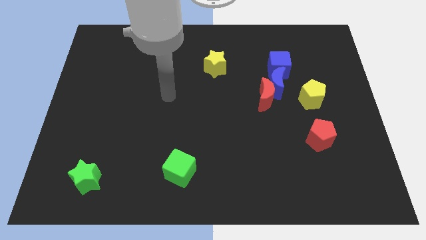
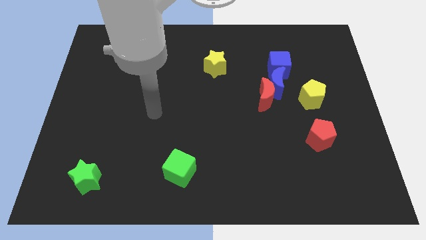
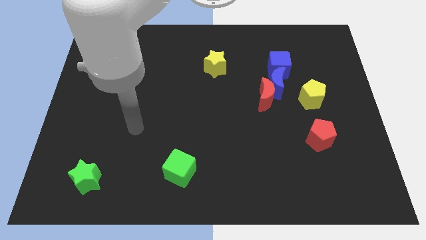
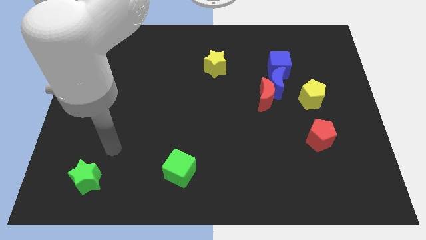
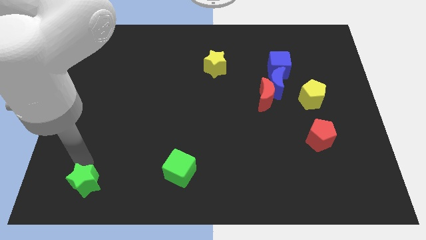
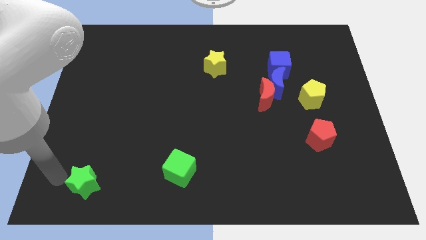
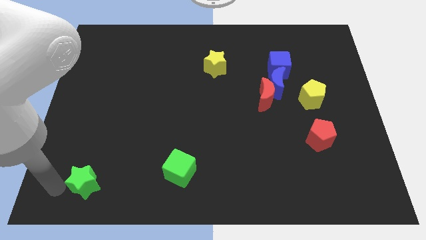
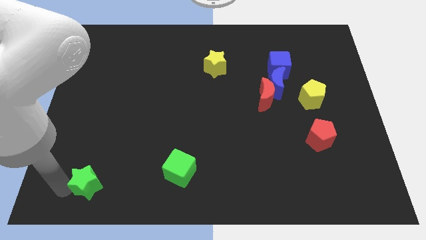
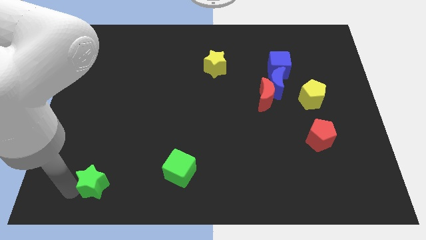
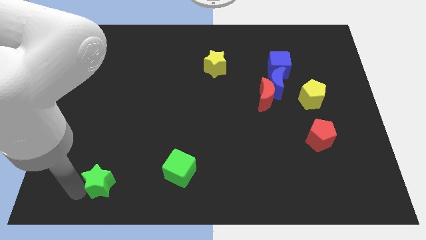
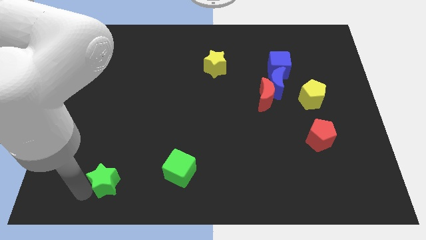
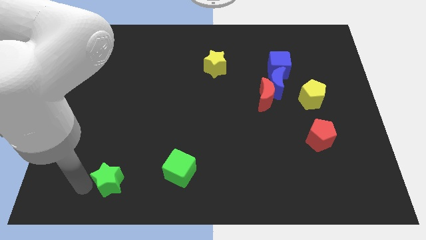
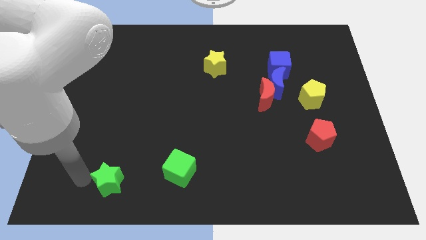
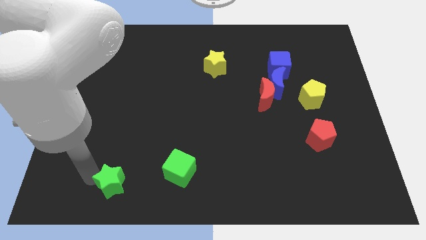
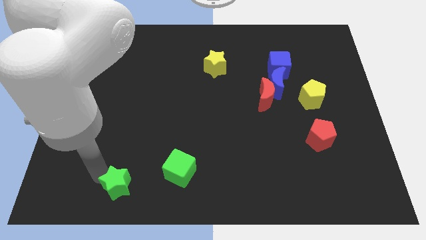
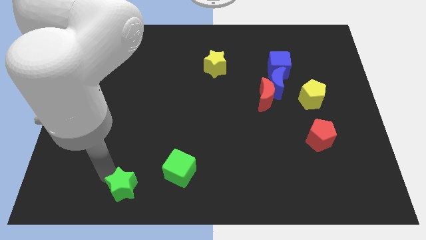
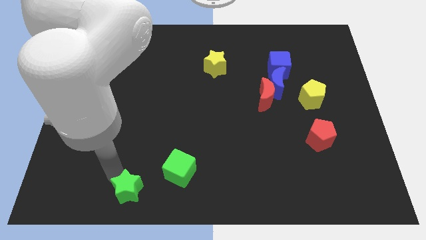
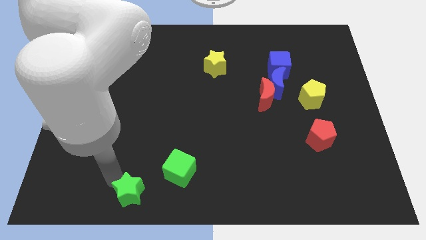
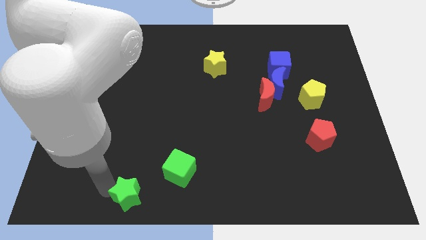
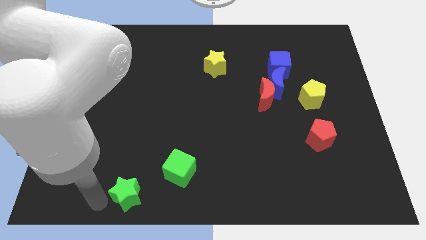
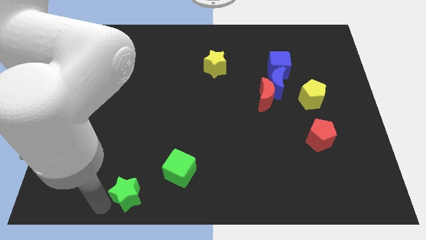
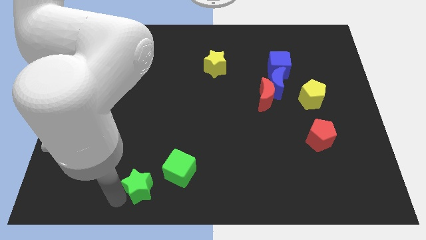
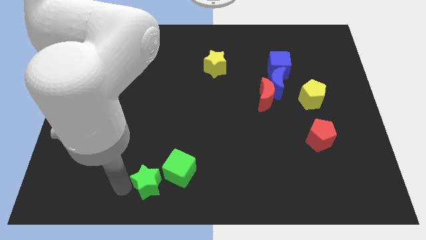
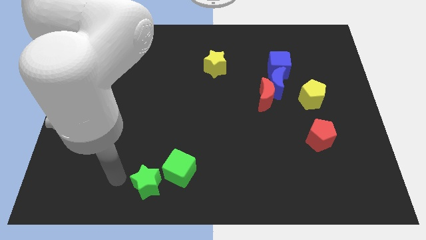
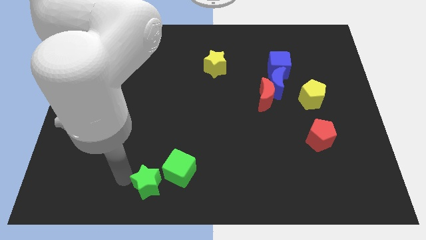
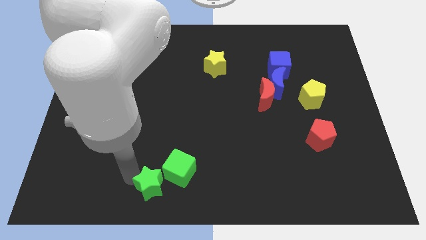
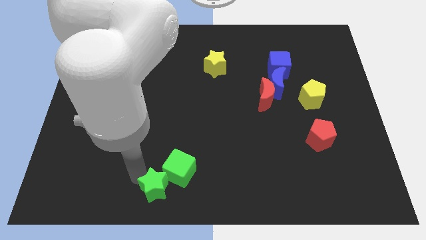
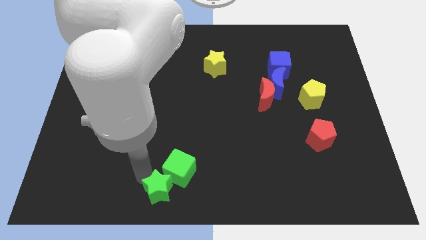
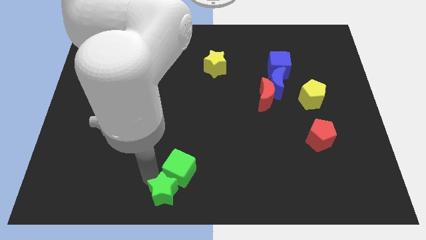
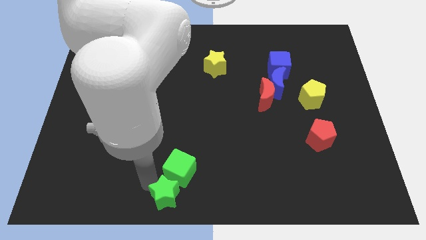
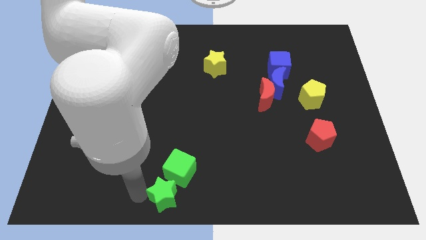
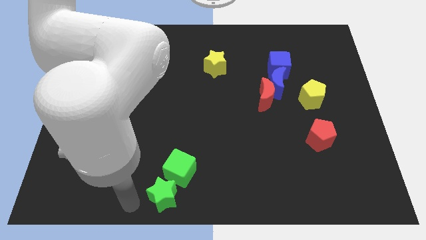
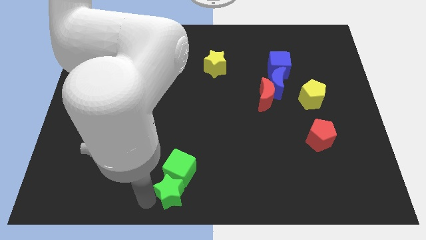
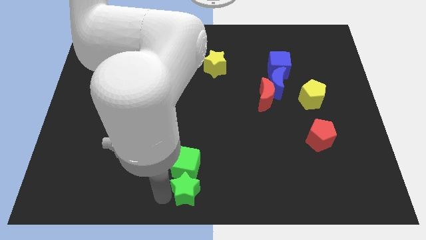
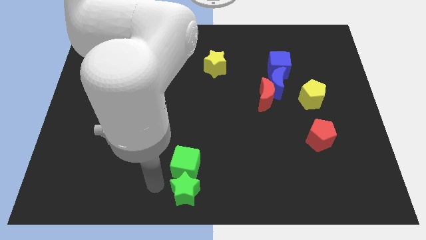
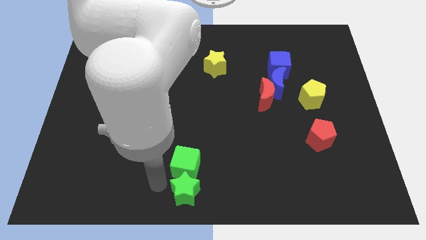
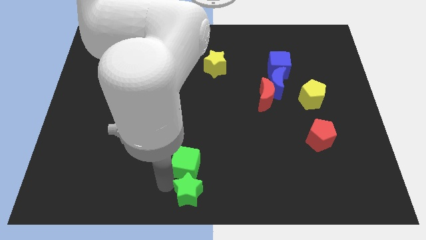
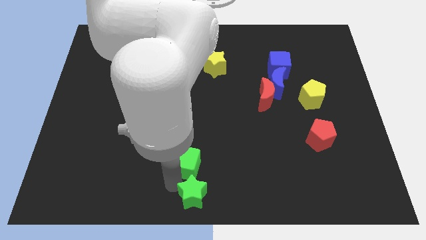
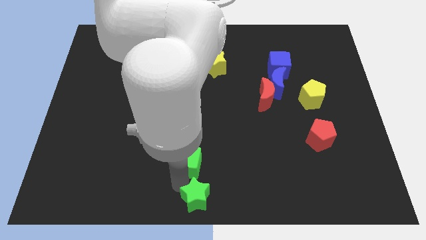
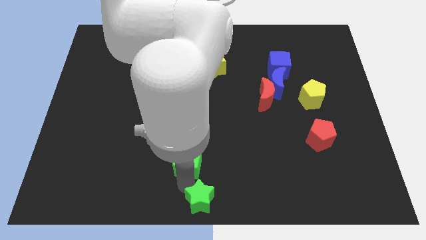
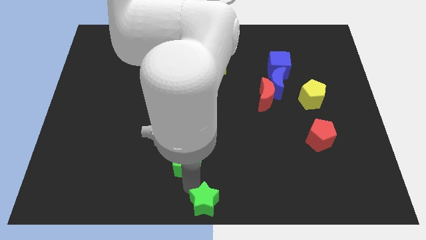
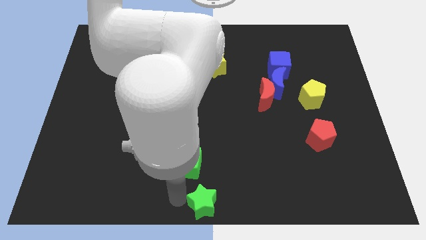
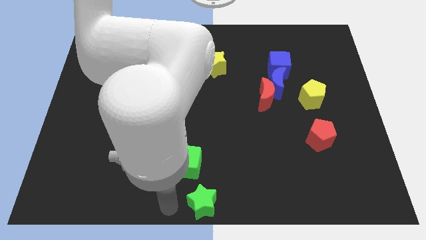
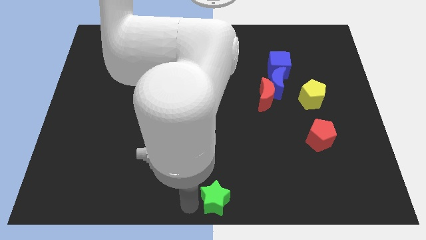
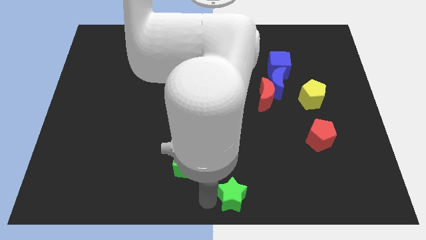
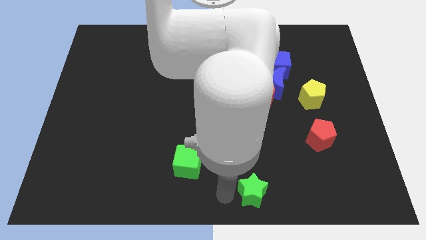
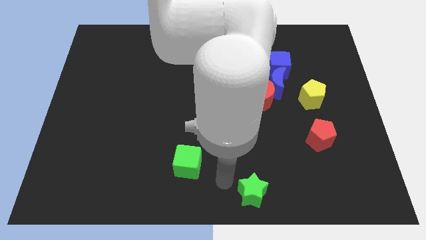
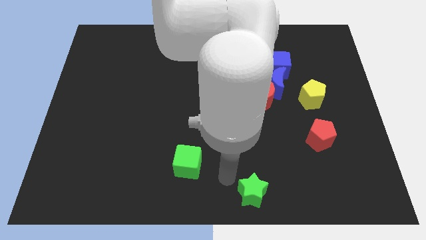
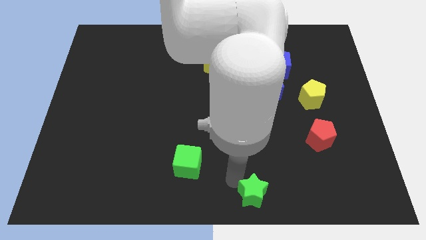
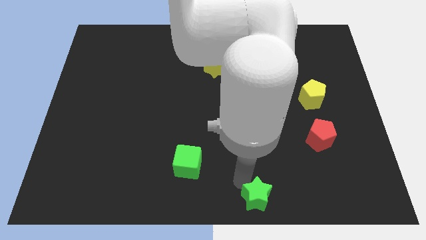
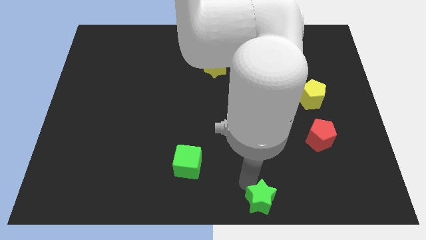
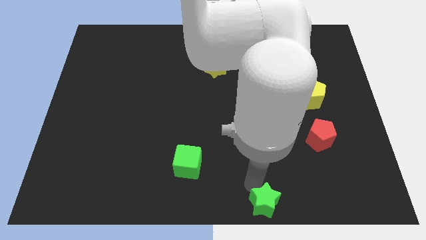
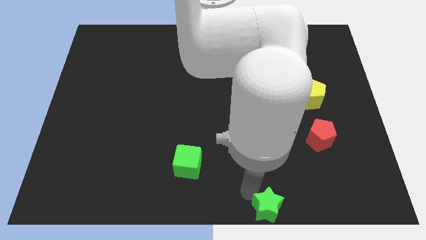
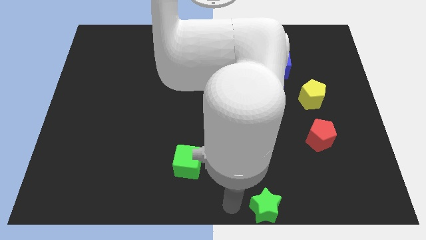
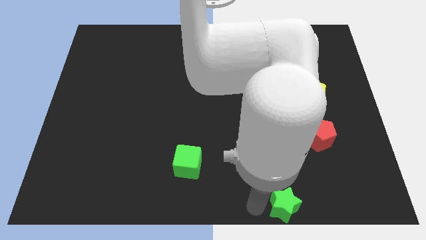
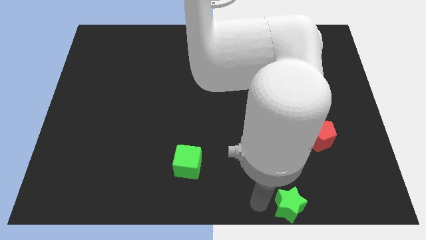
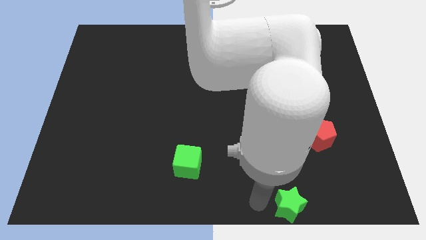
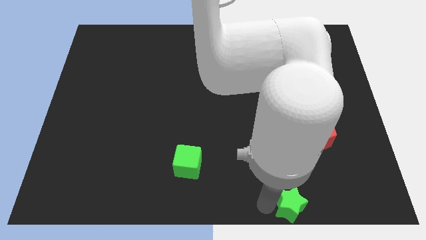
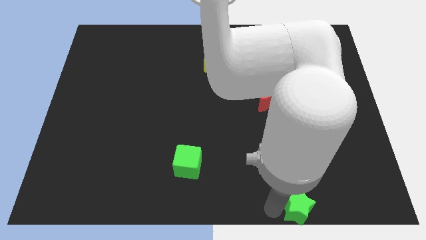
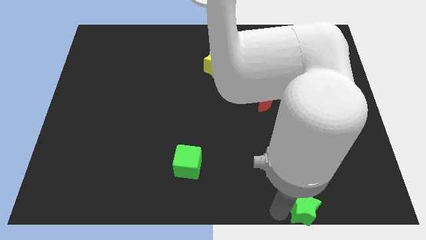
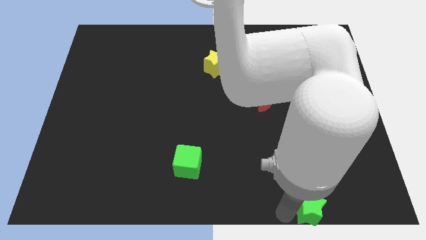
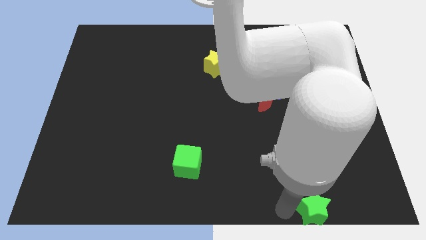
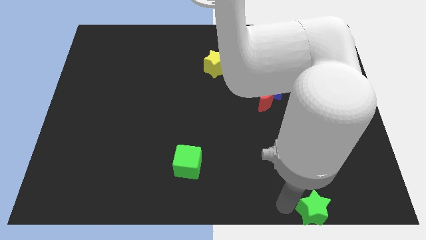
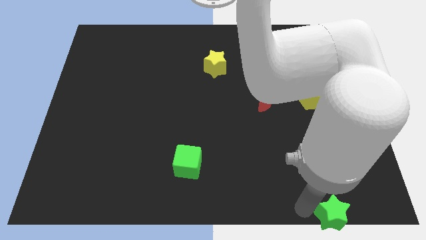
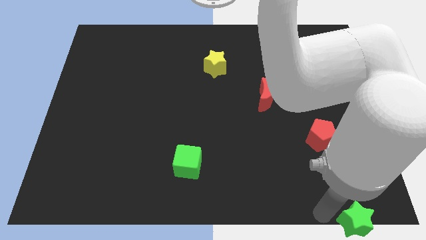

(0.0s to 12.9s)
push the green star to the bottom right corner
